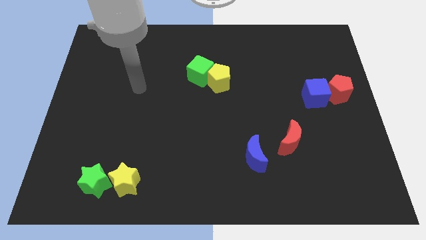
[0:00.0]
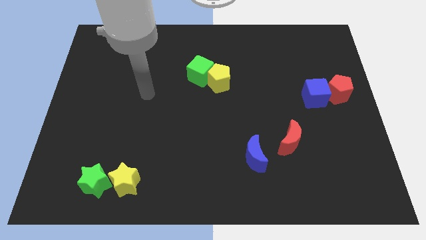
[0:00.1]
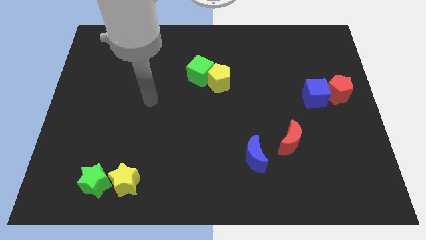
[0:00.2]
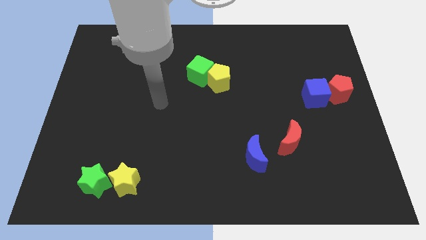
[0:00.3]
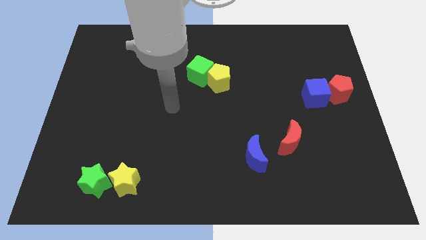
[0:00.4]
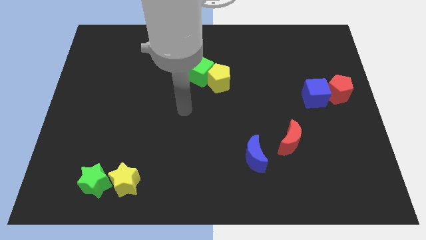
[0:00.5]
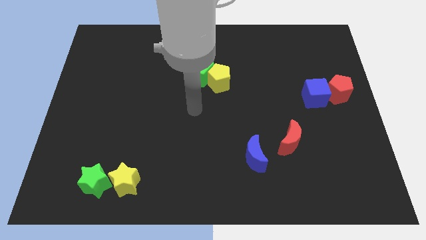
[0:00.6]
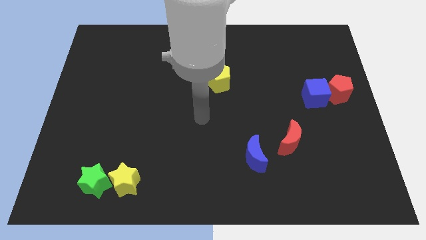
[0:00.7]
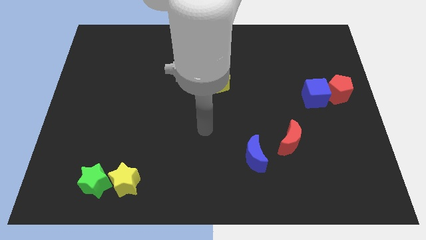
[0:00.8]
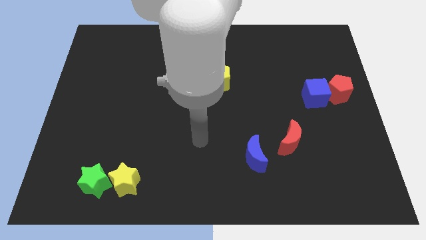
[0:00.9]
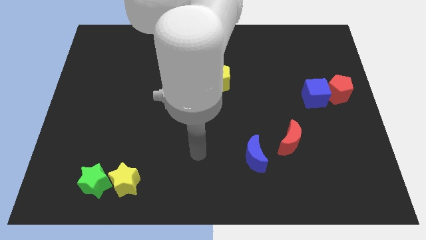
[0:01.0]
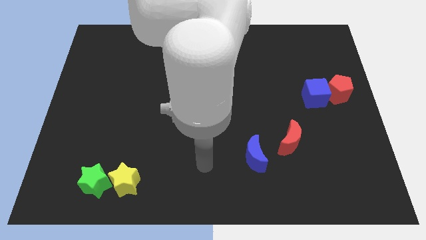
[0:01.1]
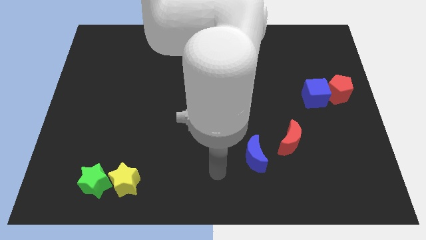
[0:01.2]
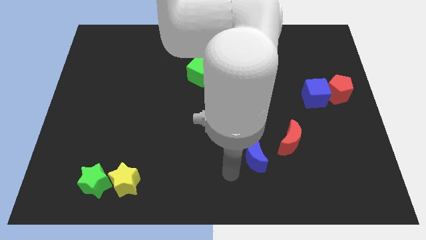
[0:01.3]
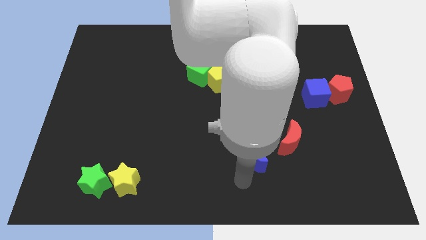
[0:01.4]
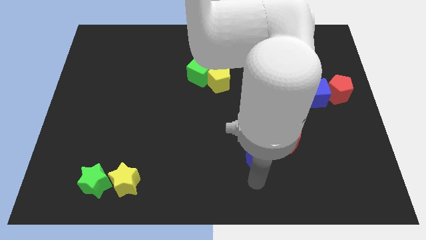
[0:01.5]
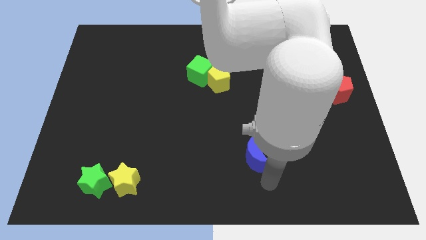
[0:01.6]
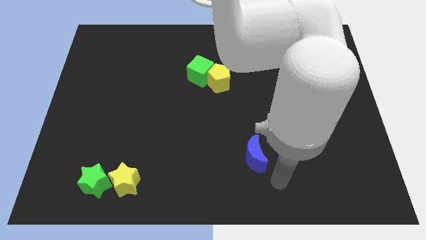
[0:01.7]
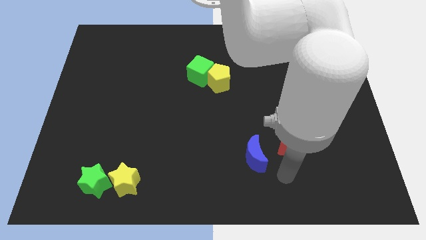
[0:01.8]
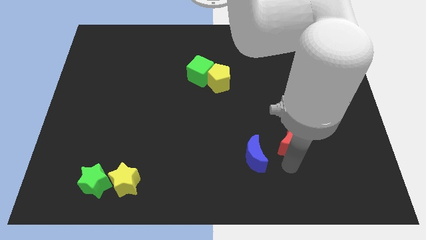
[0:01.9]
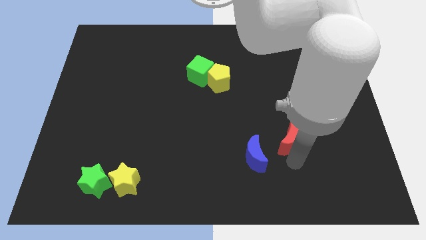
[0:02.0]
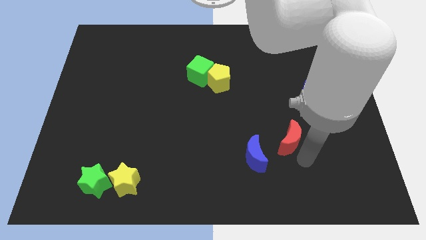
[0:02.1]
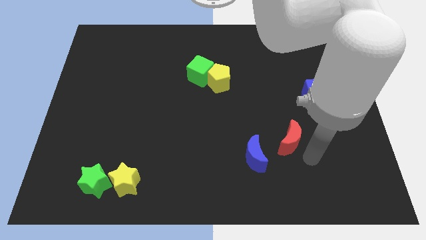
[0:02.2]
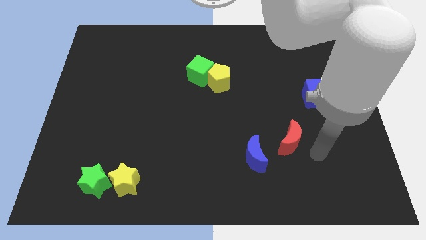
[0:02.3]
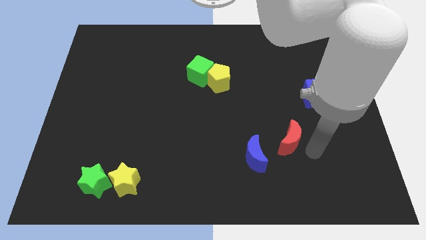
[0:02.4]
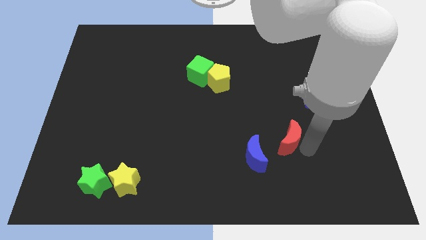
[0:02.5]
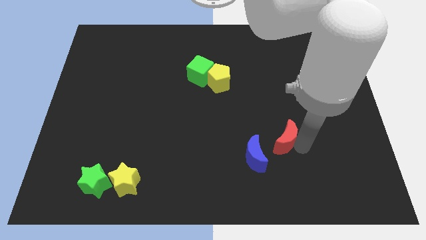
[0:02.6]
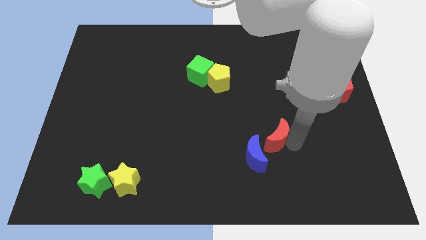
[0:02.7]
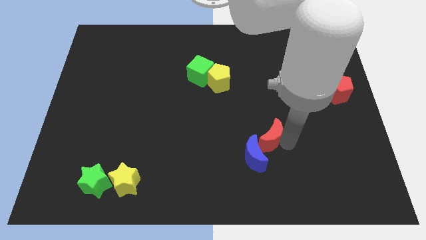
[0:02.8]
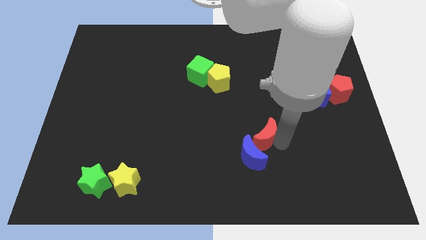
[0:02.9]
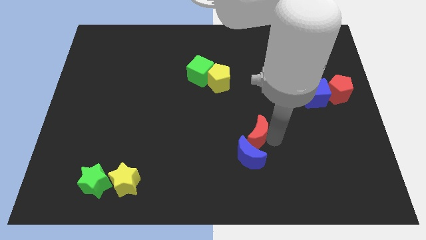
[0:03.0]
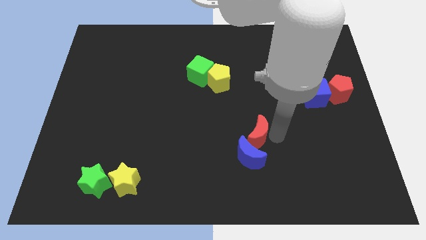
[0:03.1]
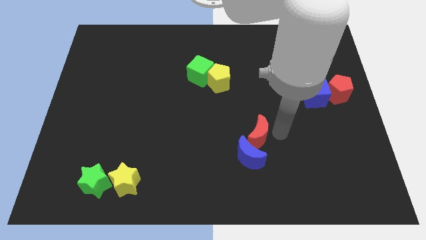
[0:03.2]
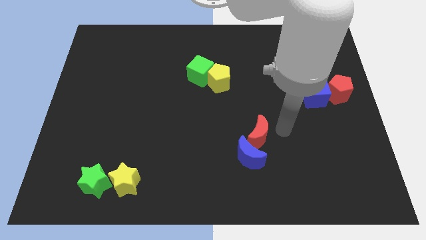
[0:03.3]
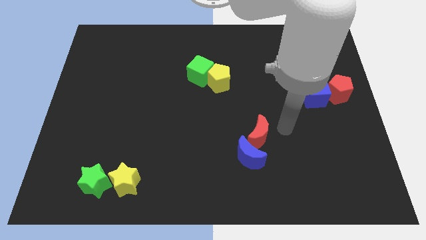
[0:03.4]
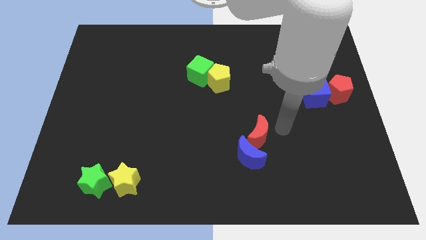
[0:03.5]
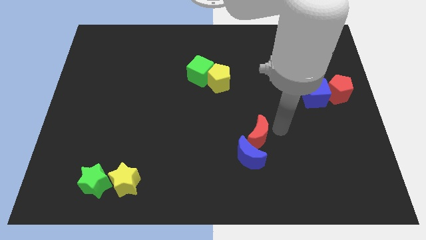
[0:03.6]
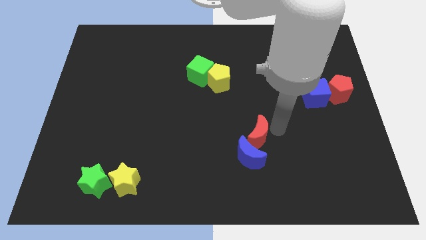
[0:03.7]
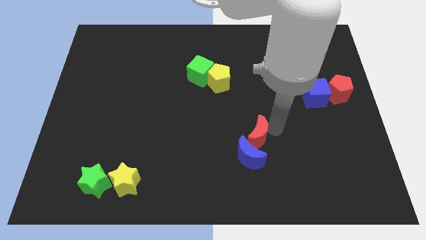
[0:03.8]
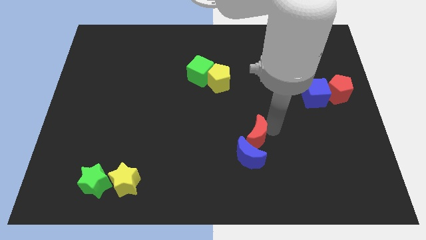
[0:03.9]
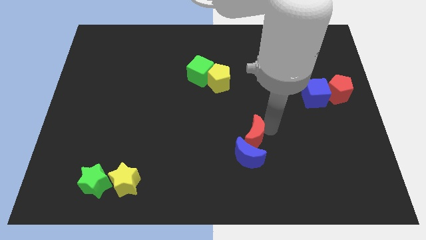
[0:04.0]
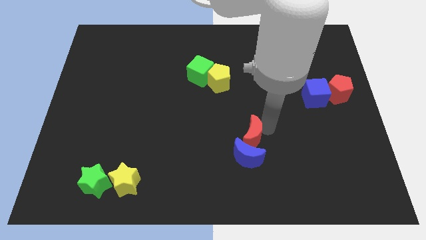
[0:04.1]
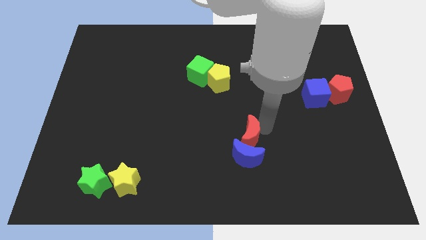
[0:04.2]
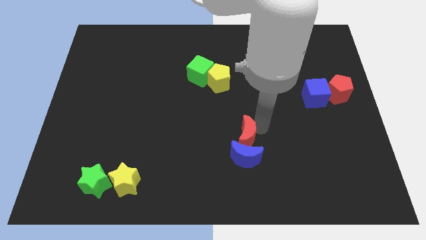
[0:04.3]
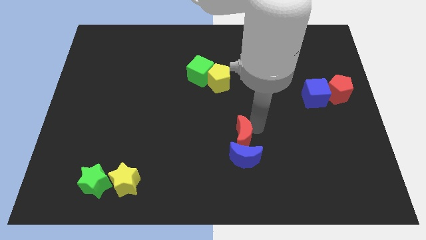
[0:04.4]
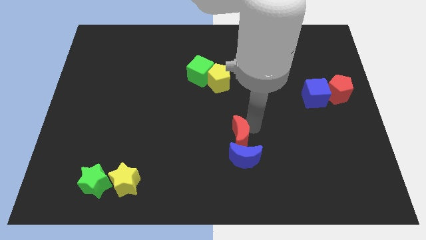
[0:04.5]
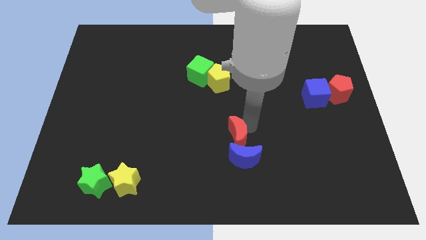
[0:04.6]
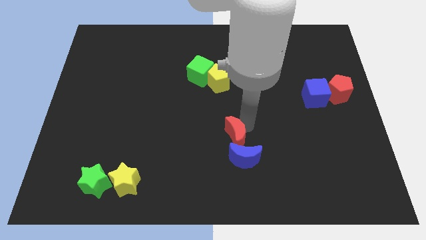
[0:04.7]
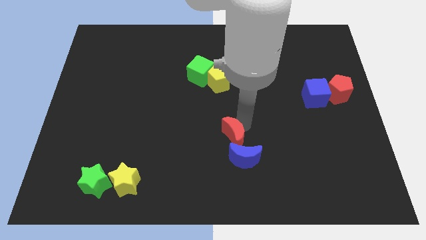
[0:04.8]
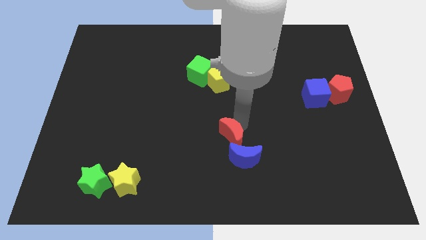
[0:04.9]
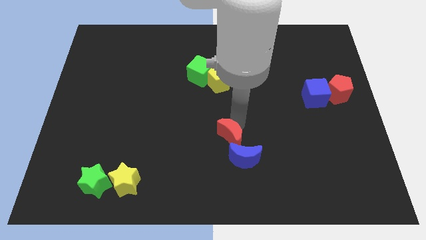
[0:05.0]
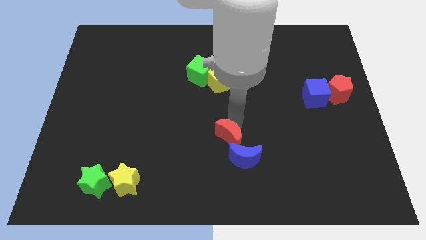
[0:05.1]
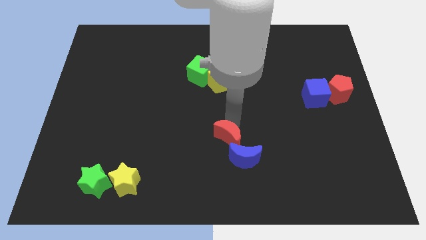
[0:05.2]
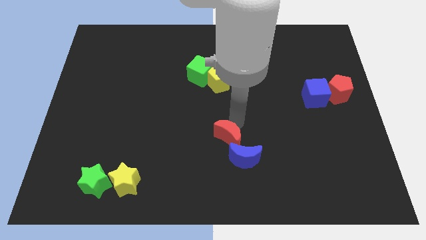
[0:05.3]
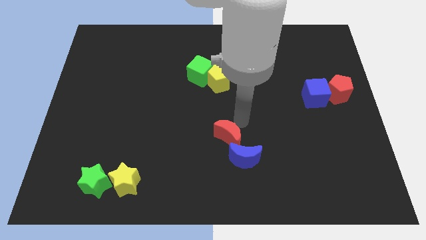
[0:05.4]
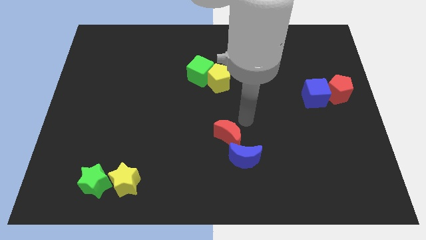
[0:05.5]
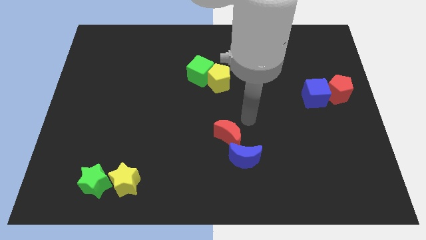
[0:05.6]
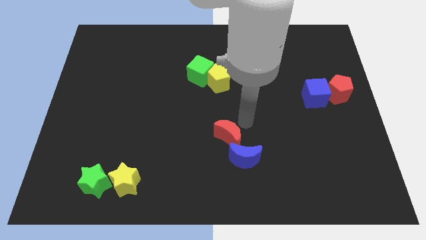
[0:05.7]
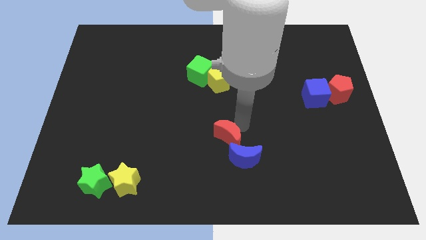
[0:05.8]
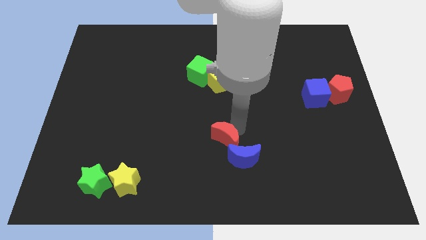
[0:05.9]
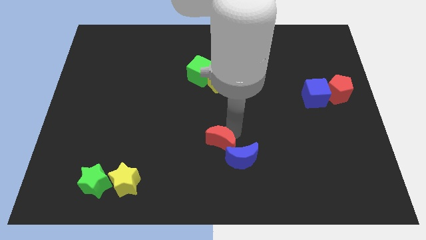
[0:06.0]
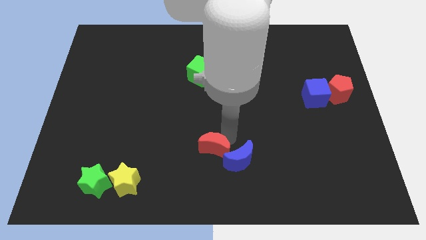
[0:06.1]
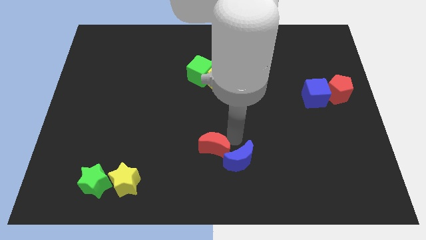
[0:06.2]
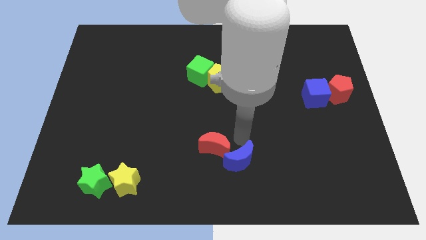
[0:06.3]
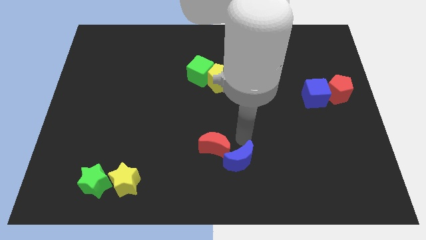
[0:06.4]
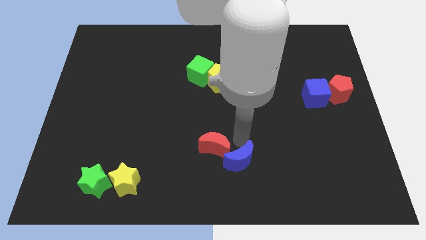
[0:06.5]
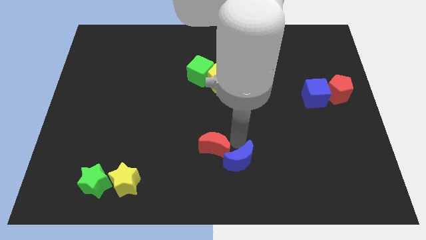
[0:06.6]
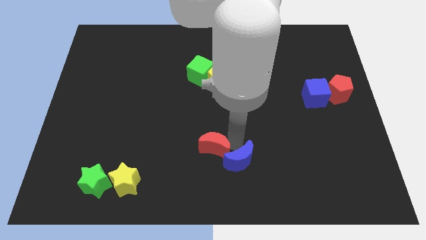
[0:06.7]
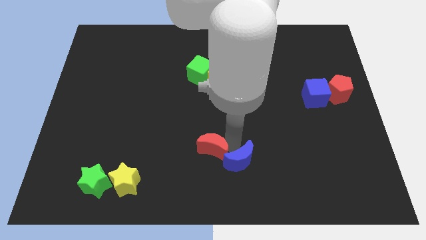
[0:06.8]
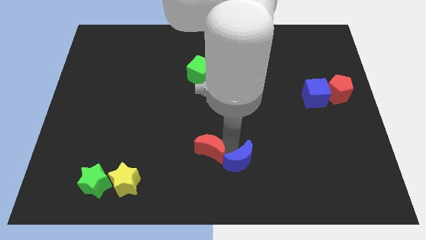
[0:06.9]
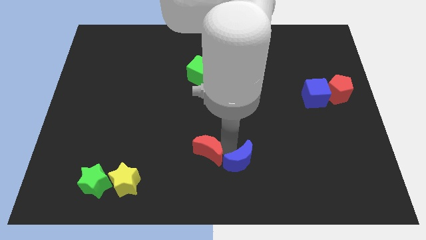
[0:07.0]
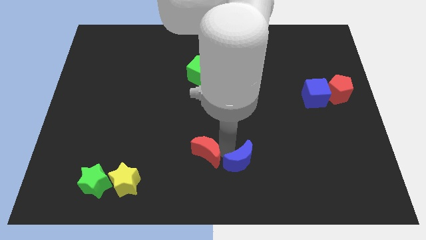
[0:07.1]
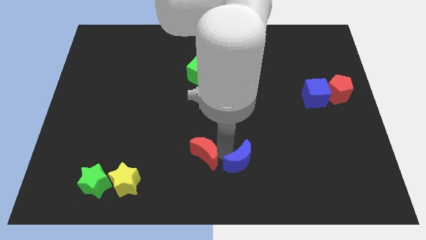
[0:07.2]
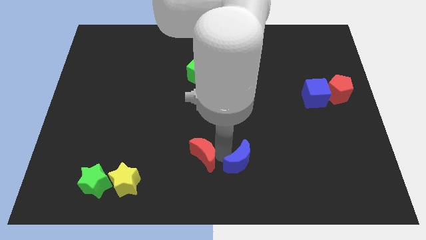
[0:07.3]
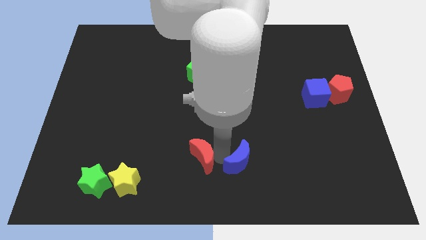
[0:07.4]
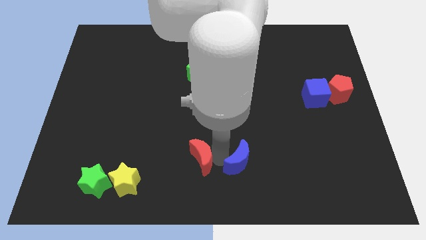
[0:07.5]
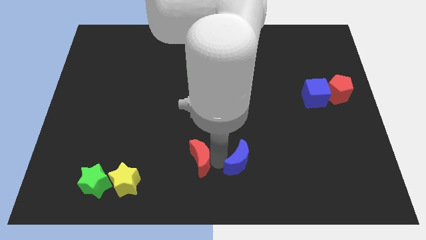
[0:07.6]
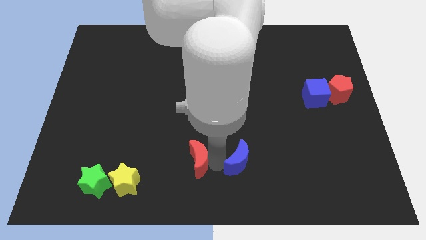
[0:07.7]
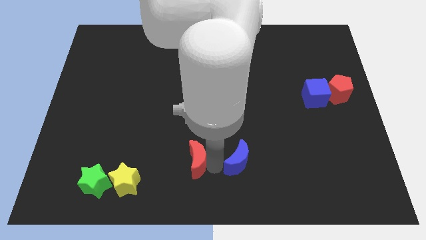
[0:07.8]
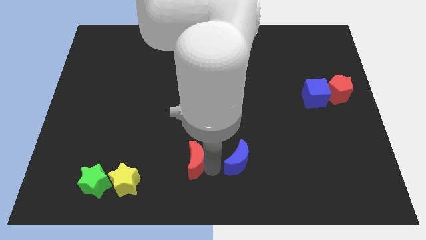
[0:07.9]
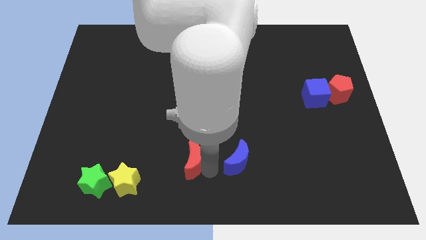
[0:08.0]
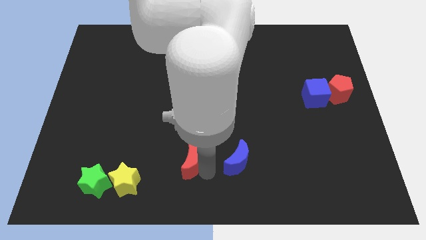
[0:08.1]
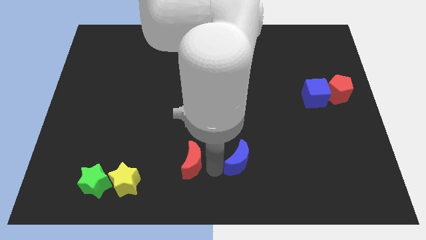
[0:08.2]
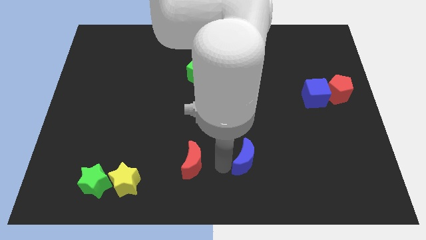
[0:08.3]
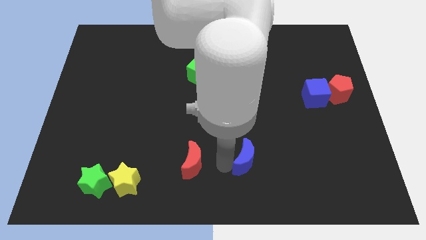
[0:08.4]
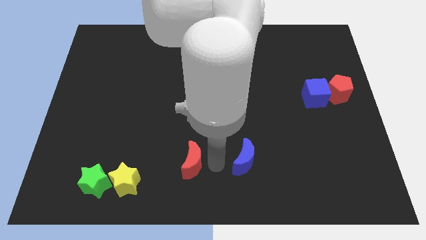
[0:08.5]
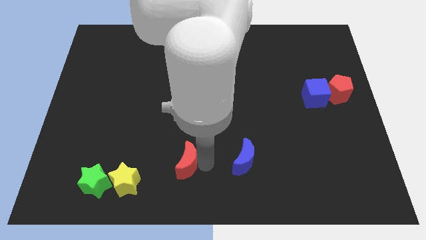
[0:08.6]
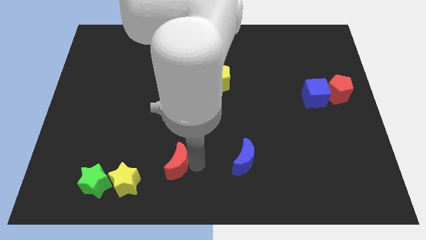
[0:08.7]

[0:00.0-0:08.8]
slide the red moon to the top right side of the yellow star
